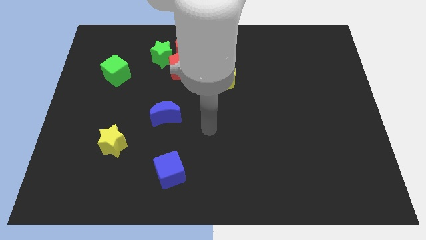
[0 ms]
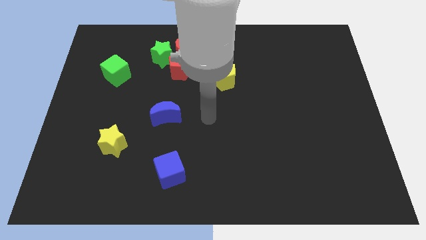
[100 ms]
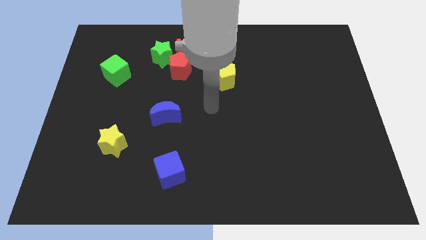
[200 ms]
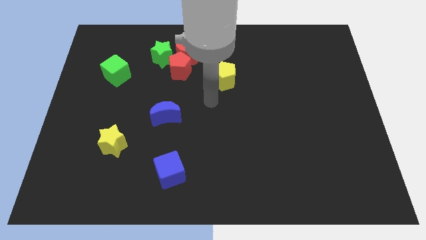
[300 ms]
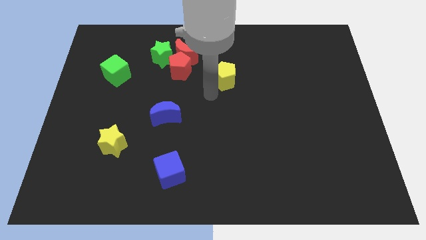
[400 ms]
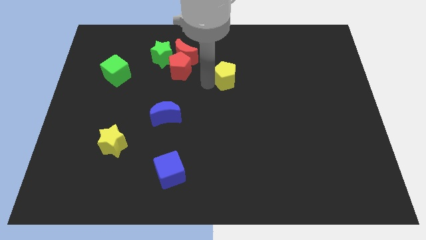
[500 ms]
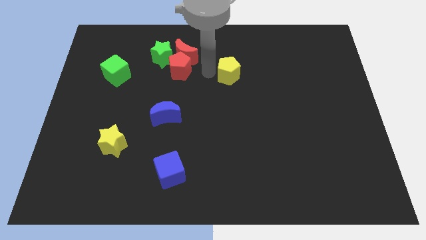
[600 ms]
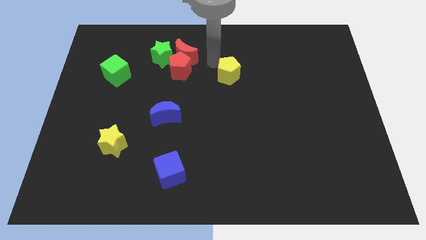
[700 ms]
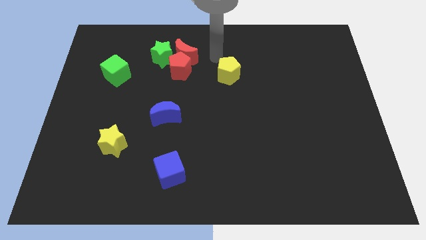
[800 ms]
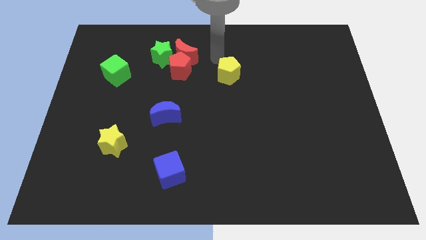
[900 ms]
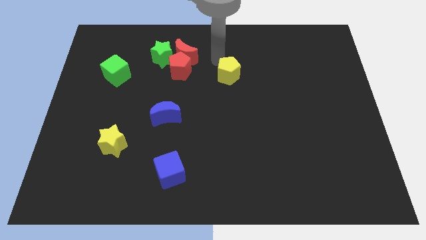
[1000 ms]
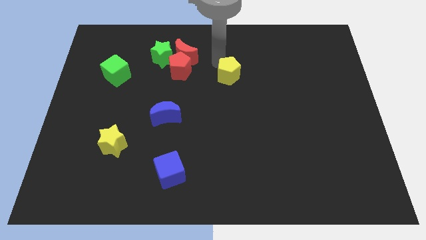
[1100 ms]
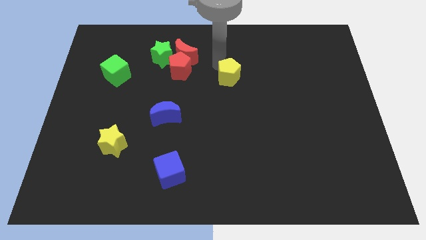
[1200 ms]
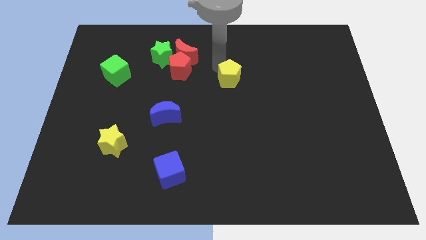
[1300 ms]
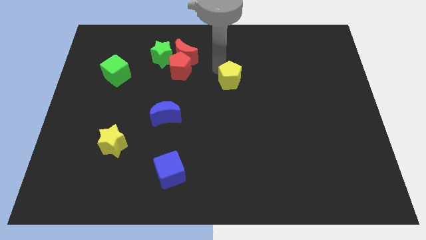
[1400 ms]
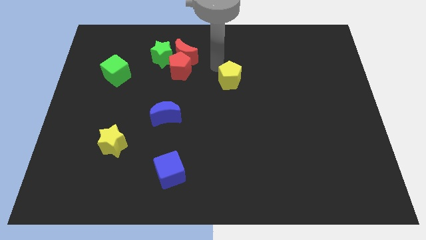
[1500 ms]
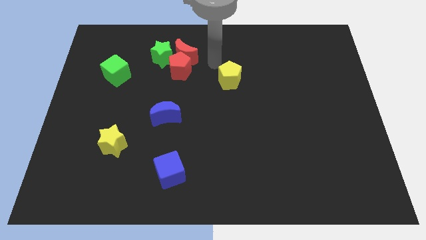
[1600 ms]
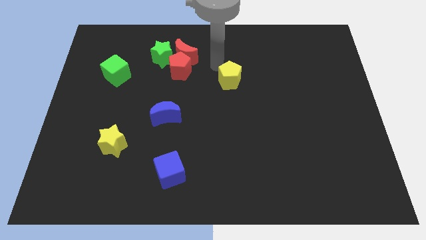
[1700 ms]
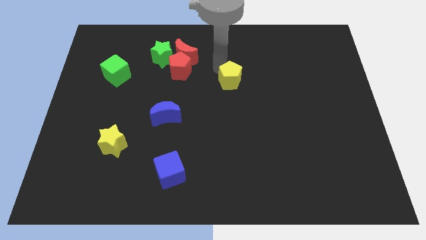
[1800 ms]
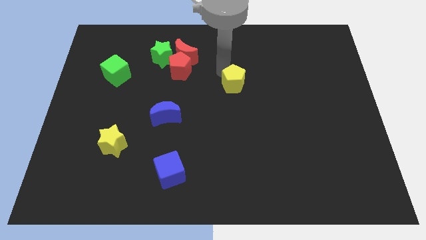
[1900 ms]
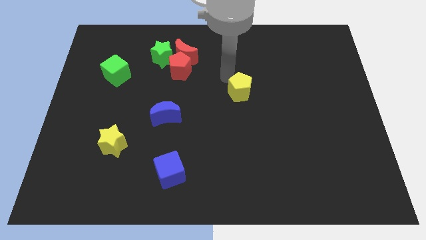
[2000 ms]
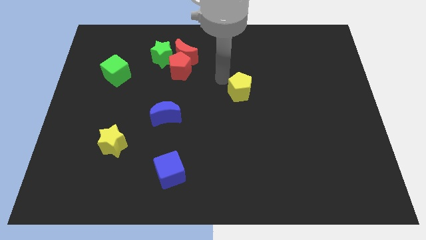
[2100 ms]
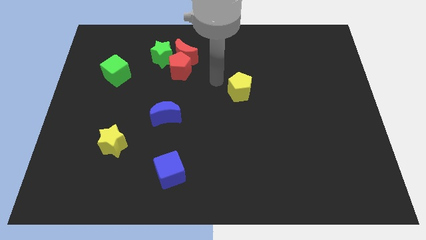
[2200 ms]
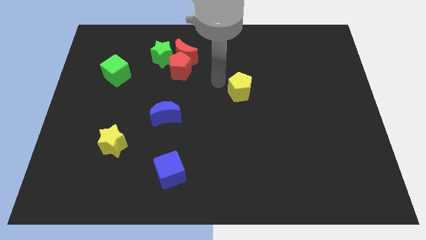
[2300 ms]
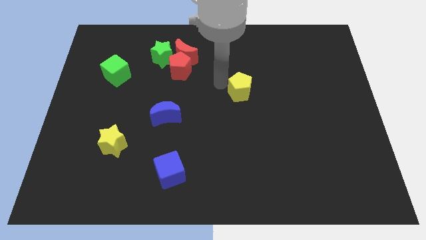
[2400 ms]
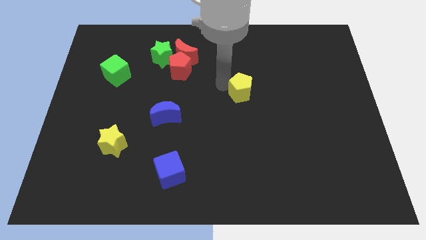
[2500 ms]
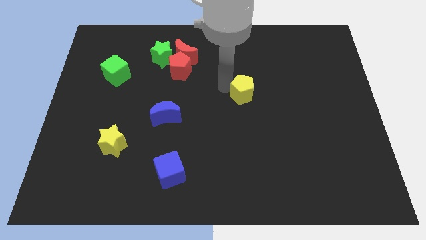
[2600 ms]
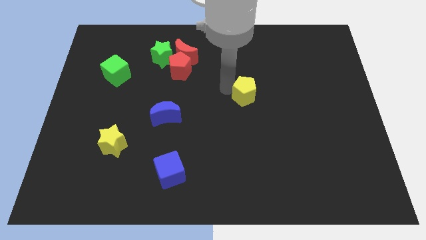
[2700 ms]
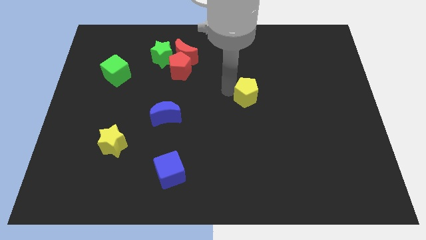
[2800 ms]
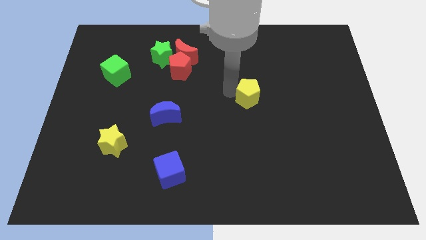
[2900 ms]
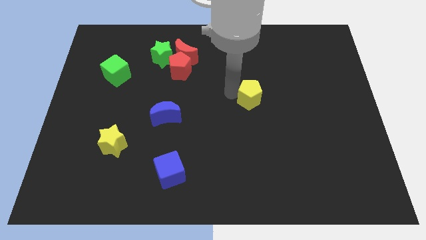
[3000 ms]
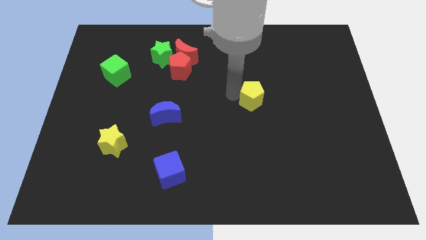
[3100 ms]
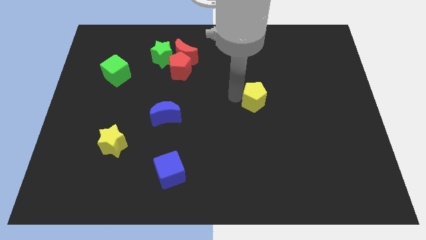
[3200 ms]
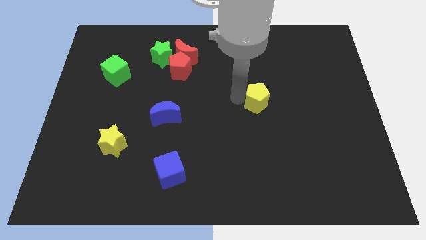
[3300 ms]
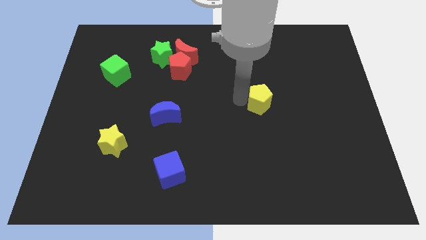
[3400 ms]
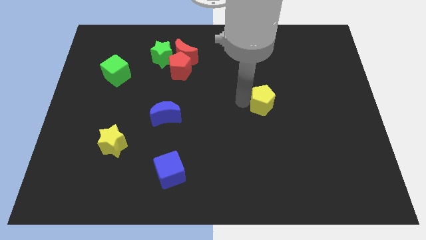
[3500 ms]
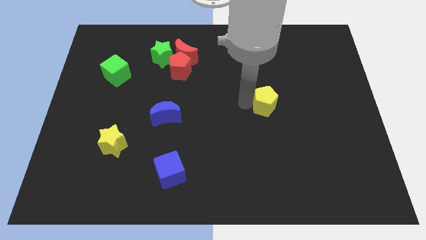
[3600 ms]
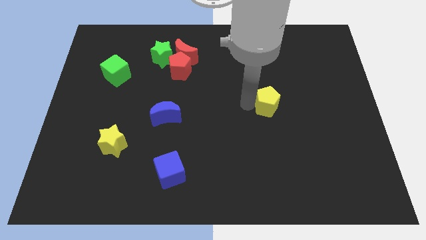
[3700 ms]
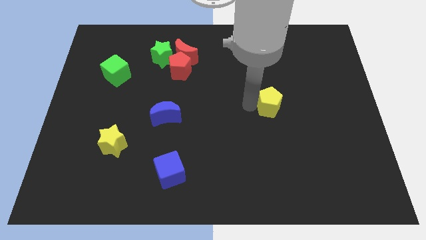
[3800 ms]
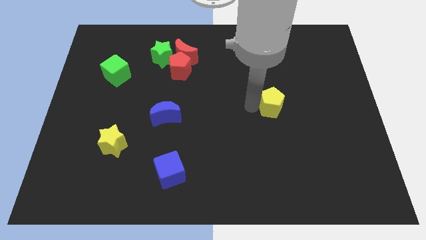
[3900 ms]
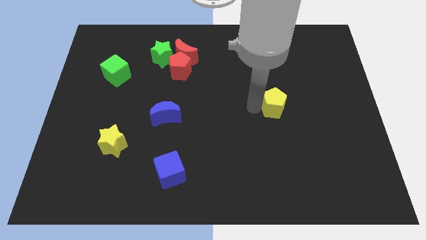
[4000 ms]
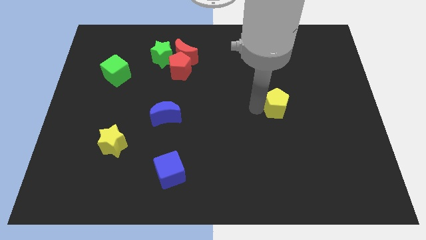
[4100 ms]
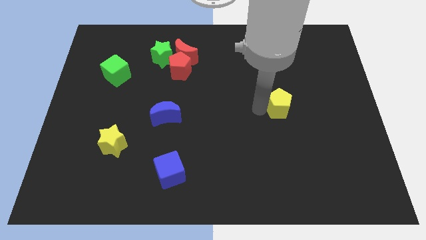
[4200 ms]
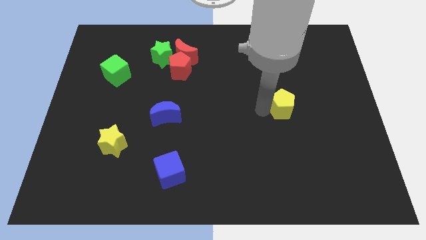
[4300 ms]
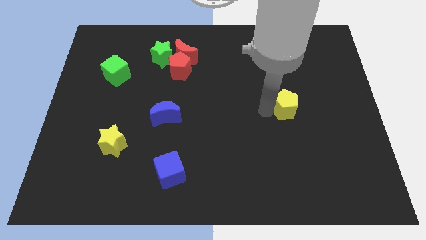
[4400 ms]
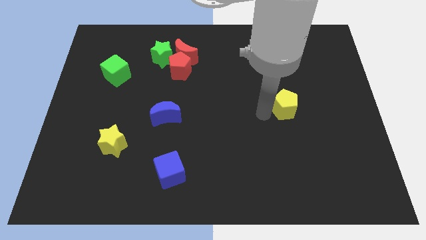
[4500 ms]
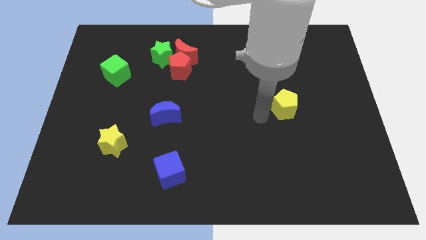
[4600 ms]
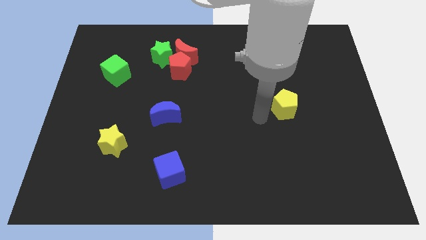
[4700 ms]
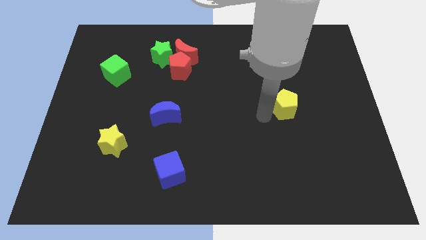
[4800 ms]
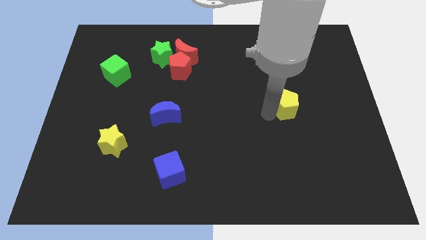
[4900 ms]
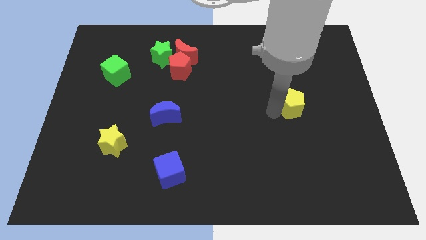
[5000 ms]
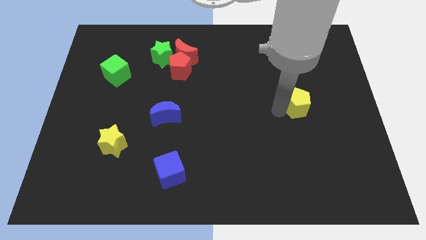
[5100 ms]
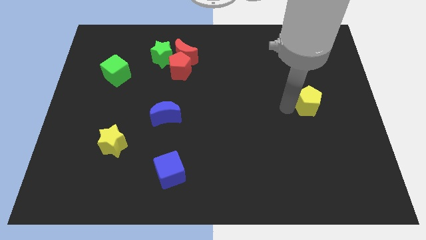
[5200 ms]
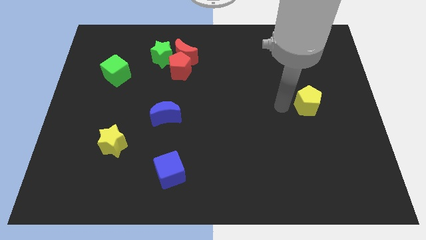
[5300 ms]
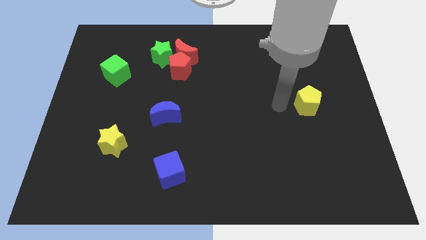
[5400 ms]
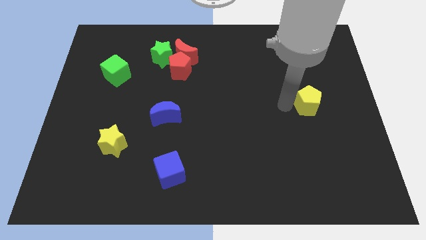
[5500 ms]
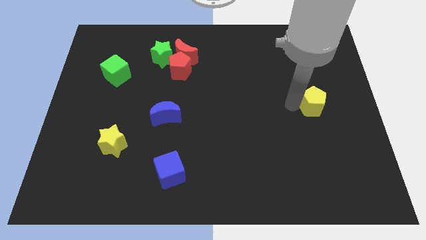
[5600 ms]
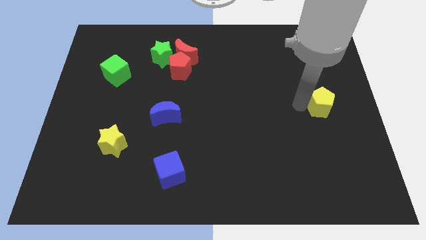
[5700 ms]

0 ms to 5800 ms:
move the yellow pentagon to the center right
